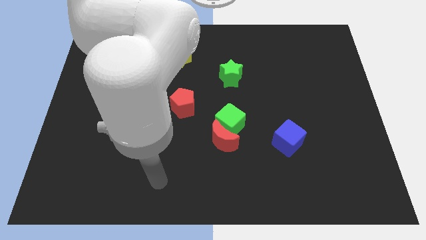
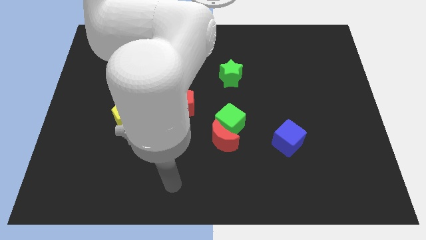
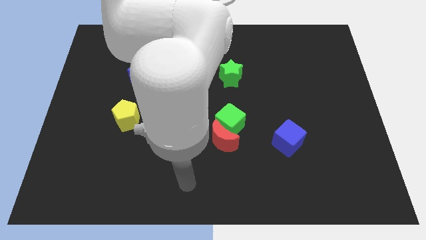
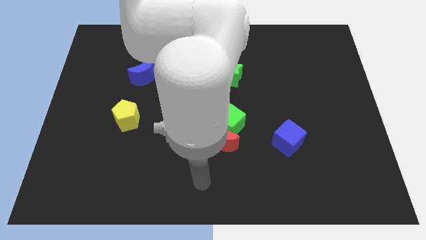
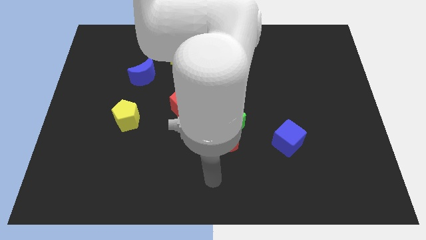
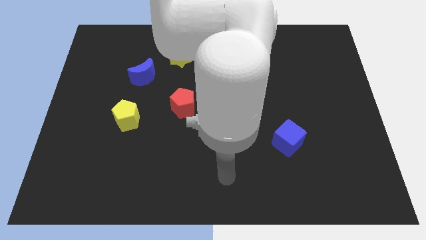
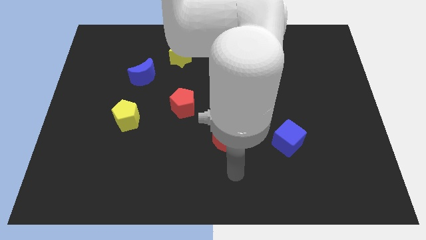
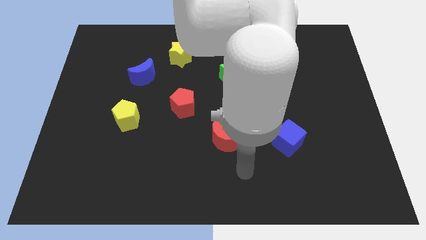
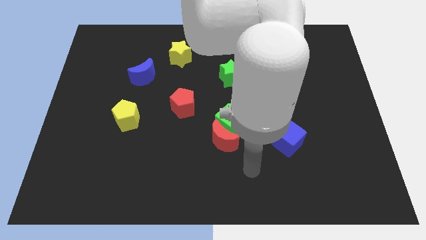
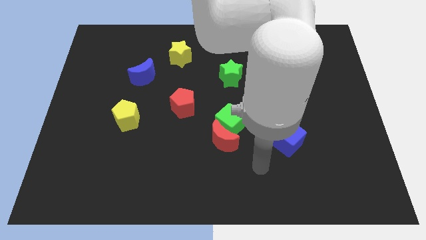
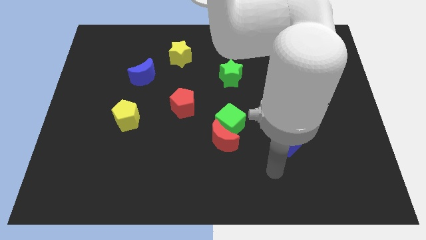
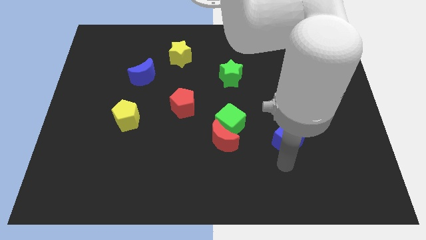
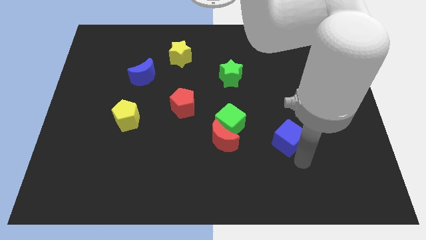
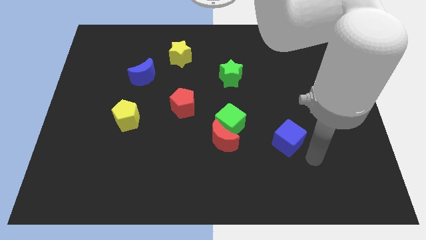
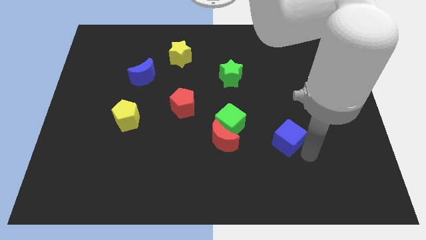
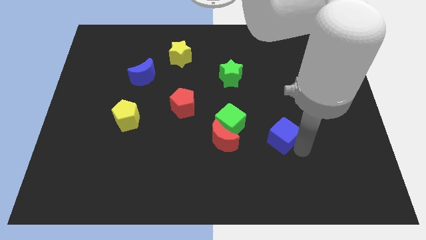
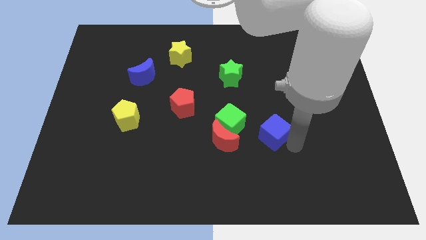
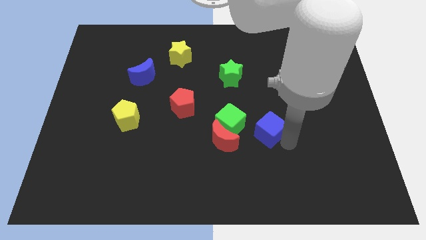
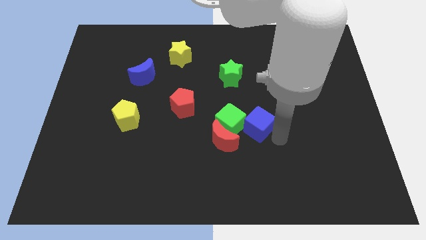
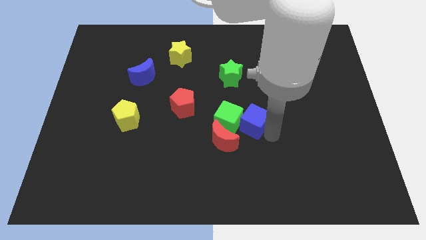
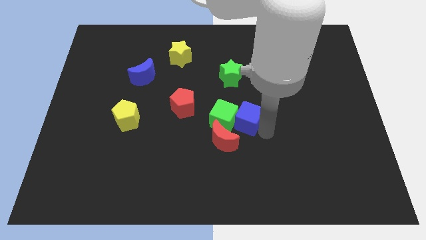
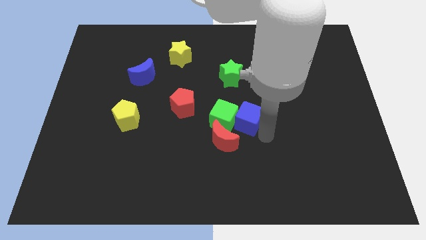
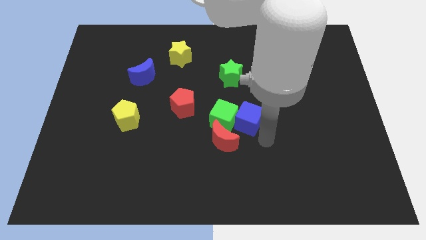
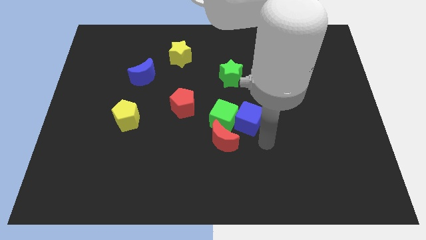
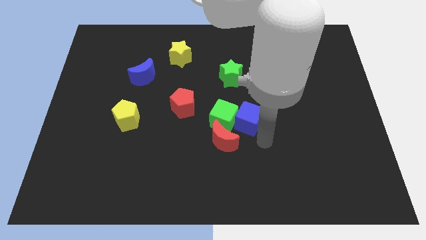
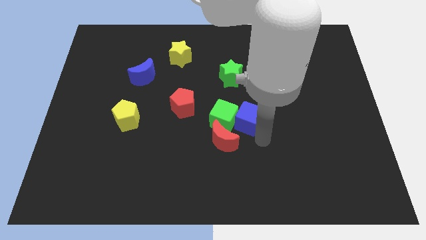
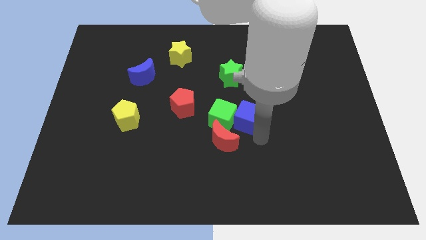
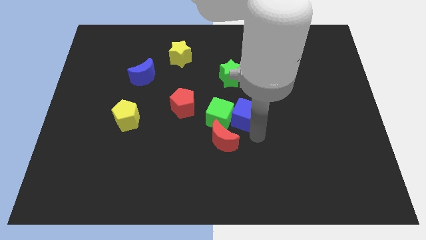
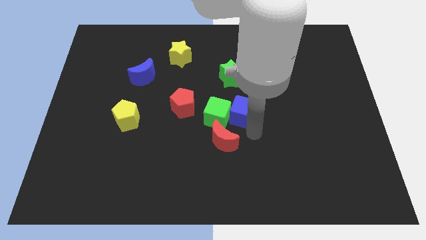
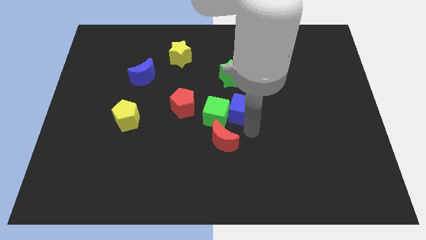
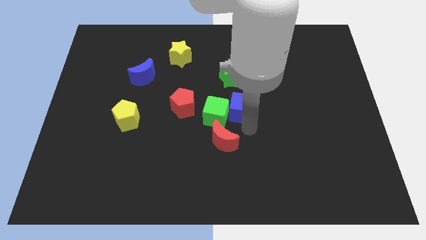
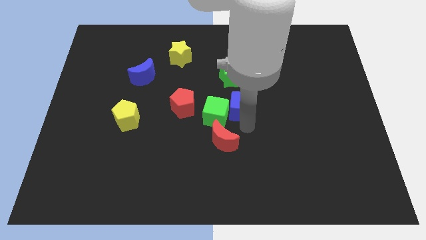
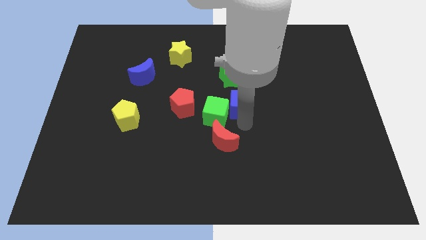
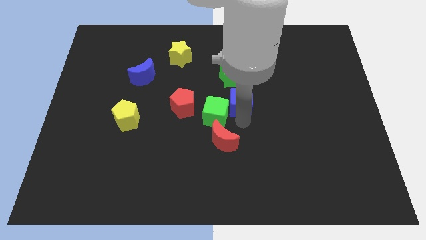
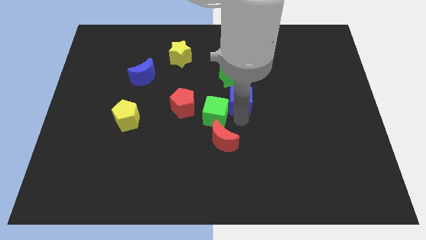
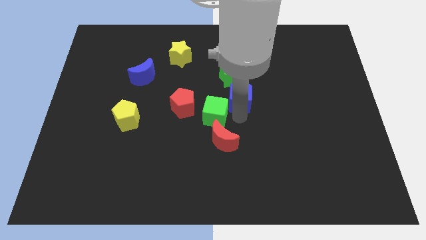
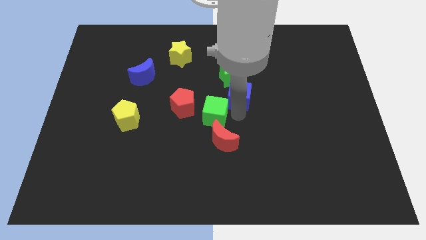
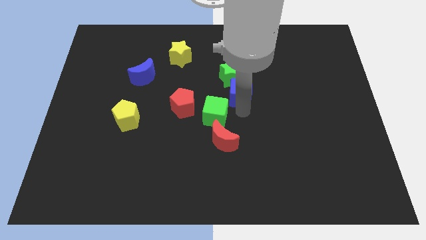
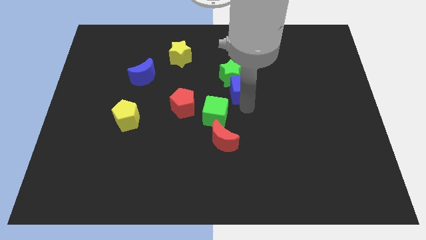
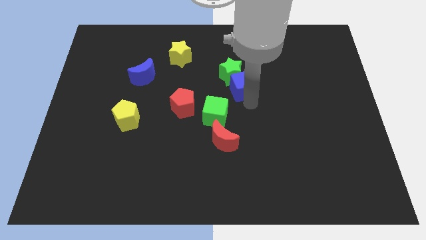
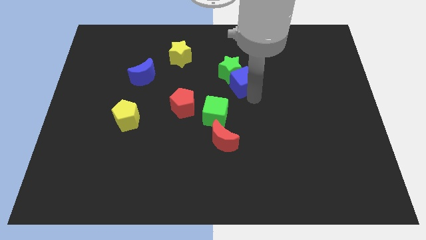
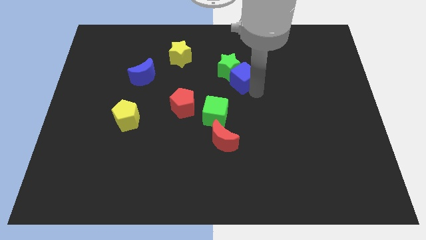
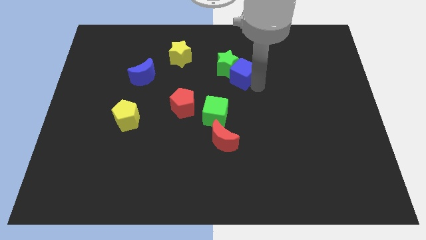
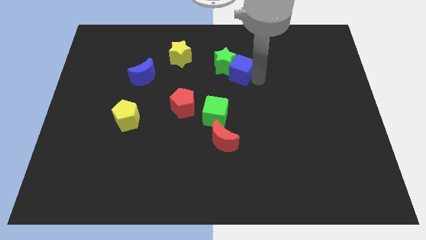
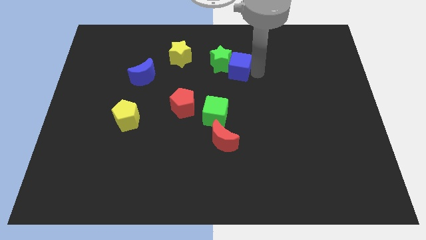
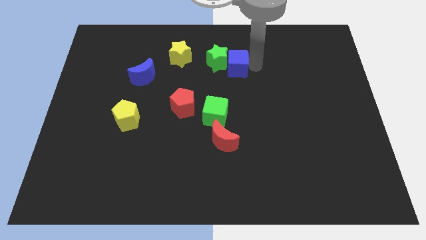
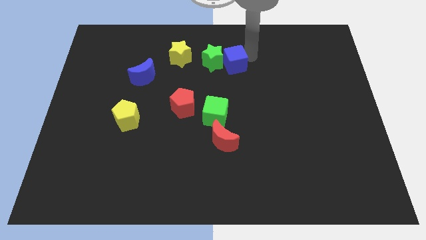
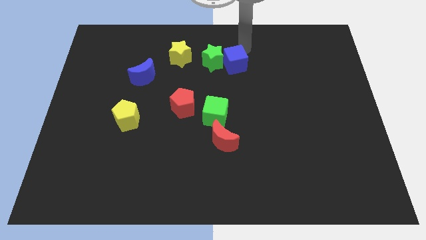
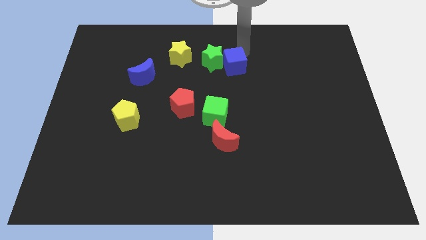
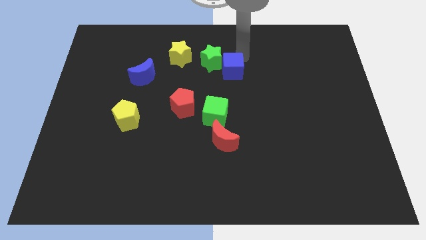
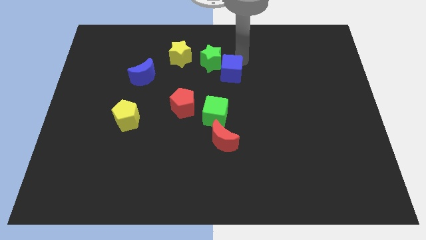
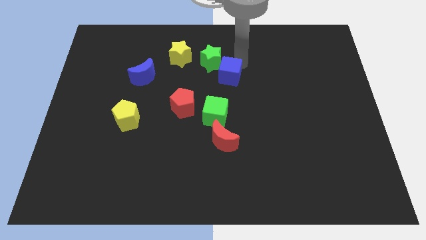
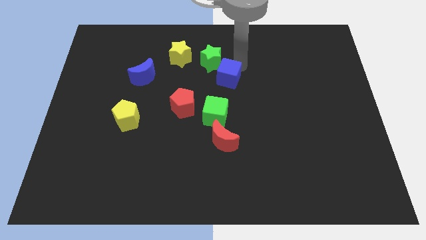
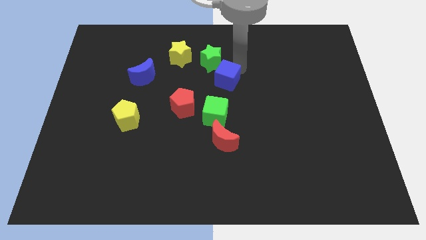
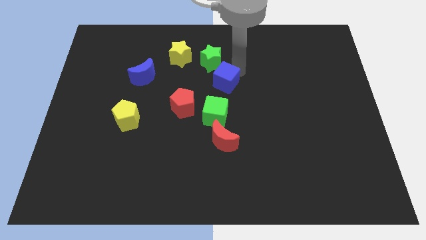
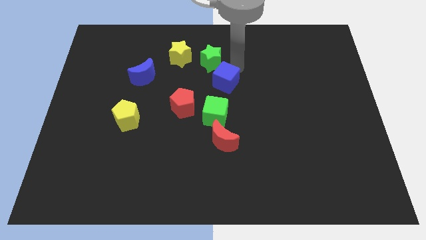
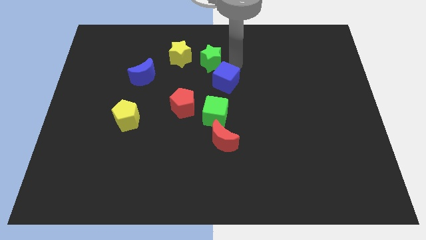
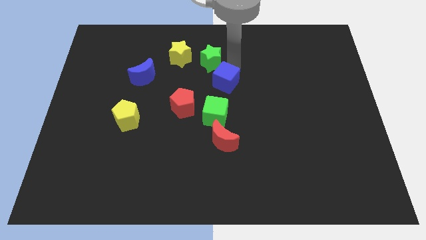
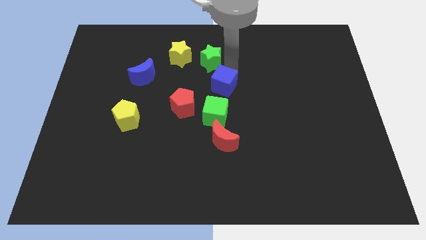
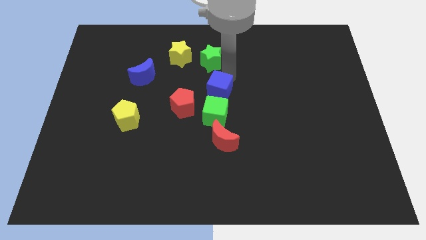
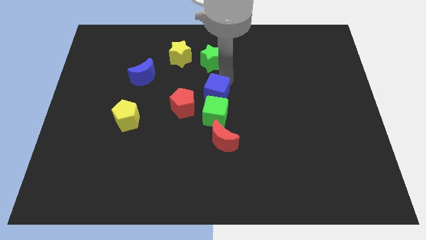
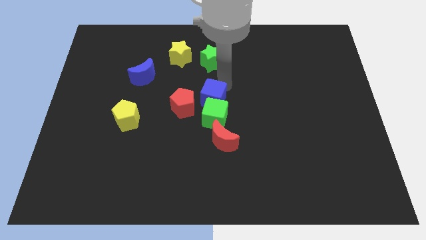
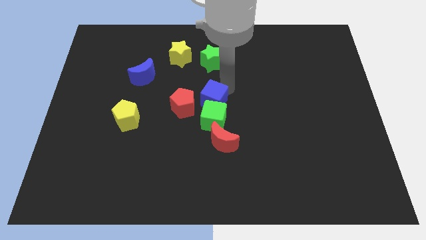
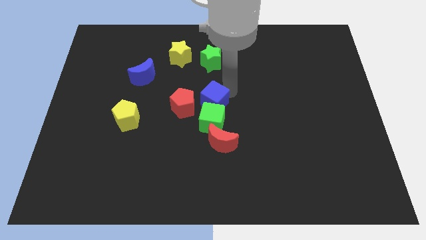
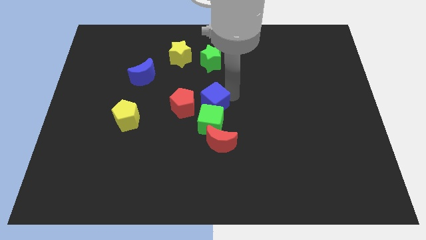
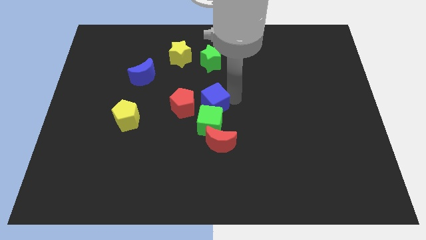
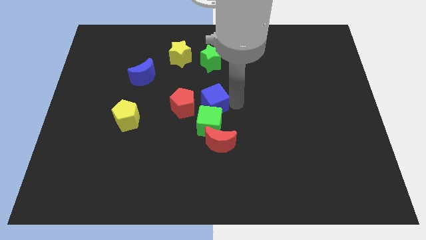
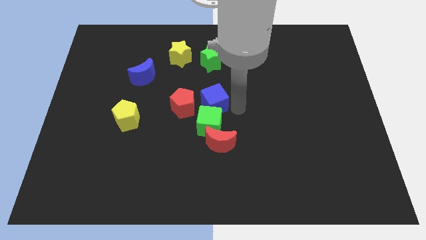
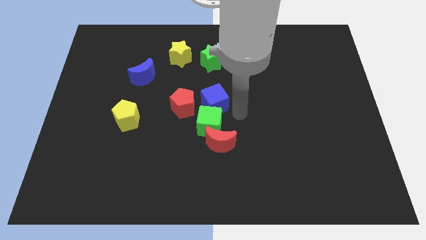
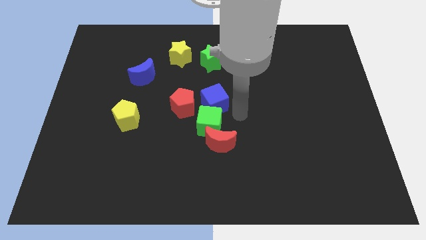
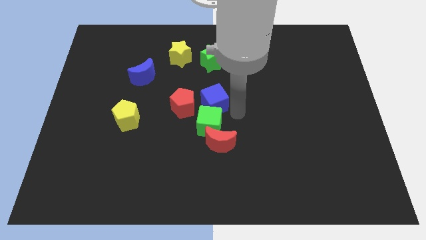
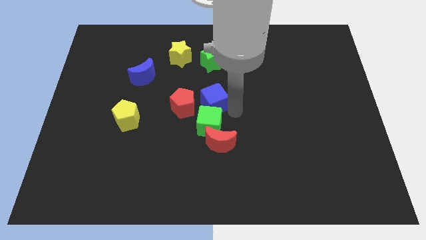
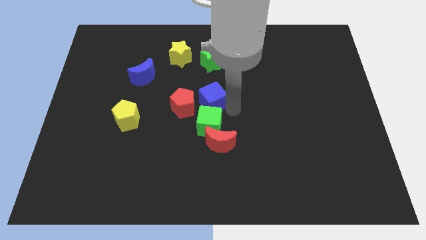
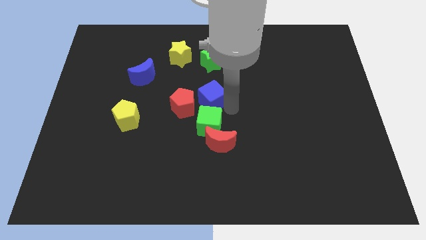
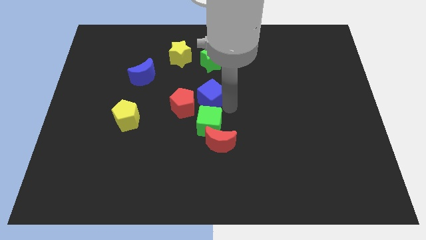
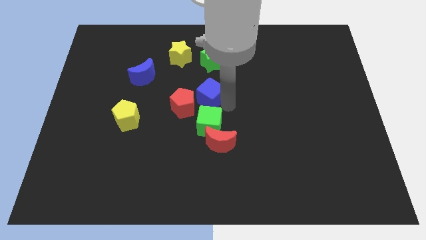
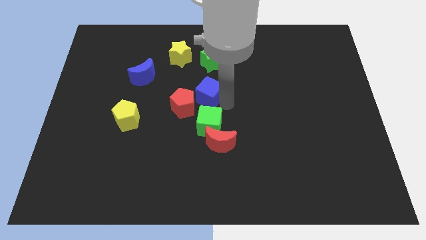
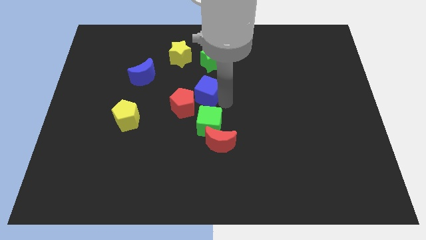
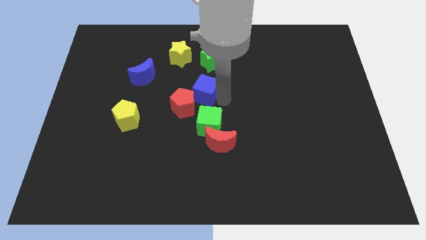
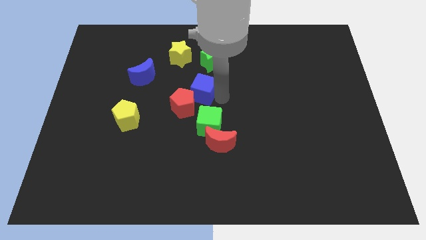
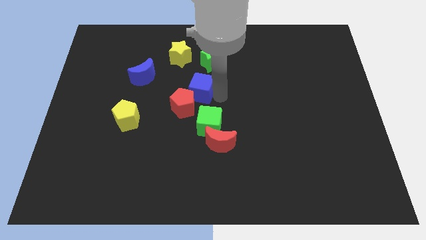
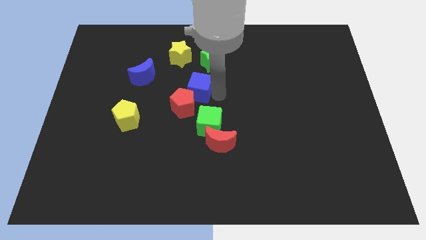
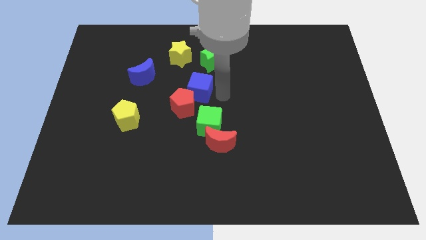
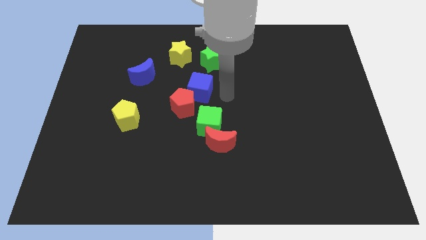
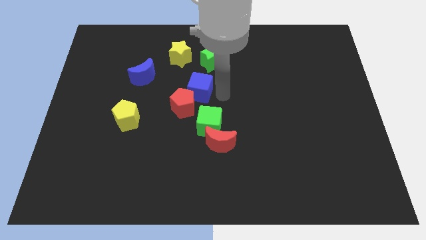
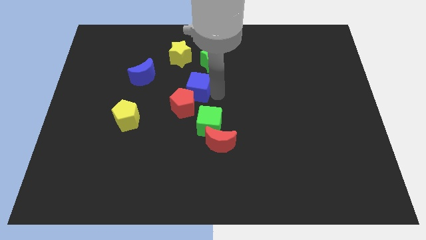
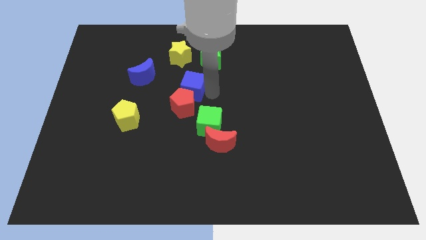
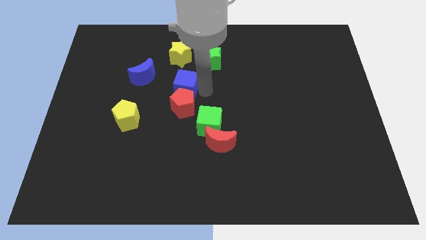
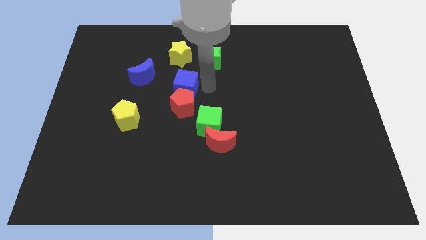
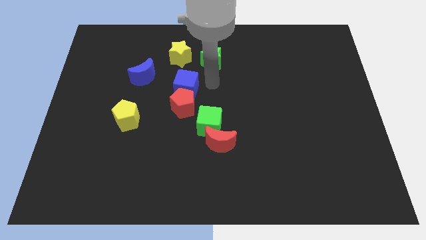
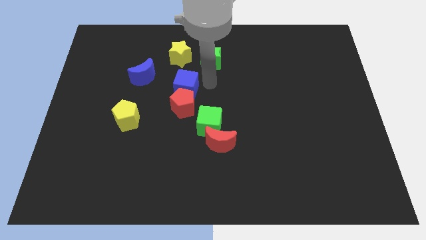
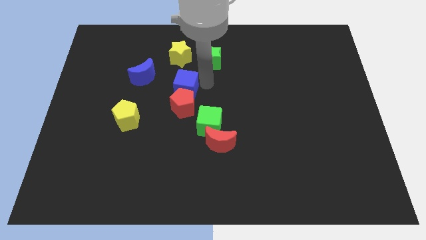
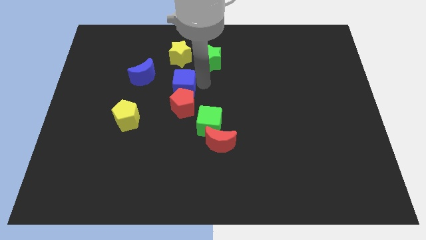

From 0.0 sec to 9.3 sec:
push the blue cube to the bottom right side of the blue moon
